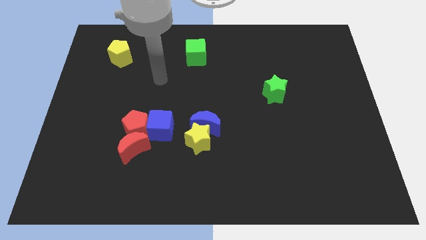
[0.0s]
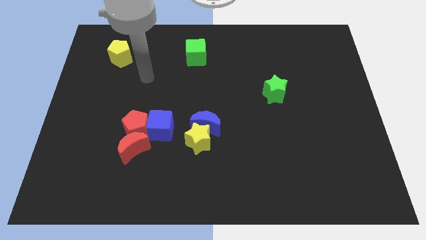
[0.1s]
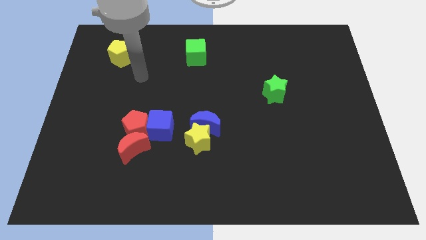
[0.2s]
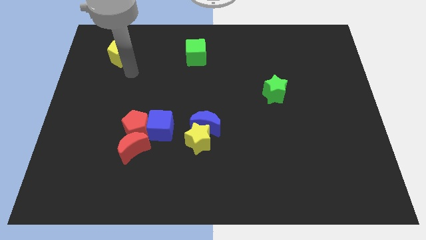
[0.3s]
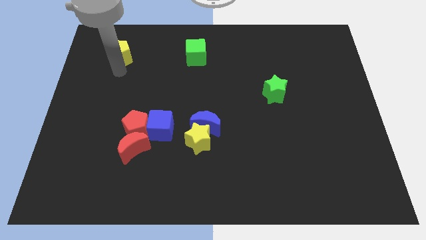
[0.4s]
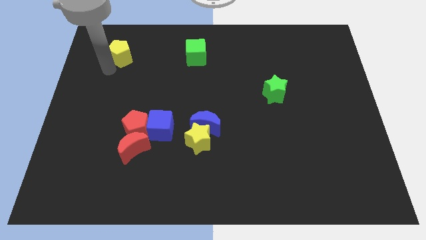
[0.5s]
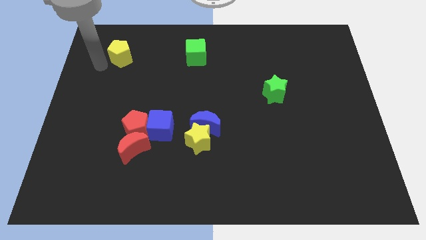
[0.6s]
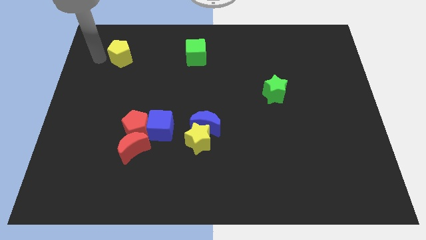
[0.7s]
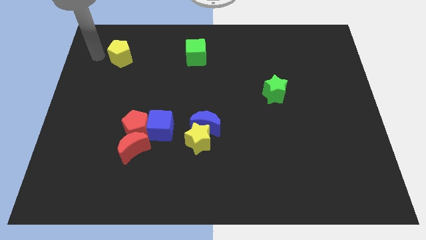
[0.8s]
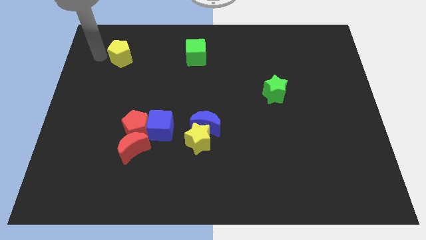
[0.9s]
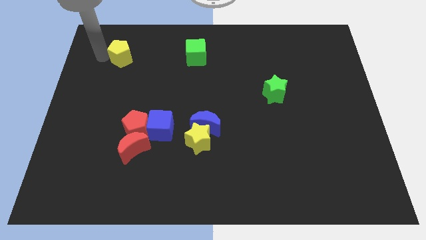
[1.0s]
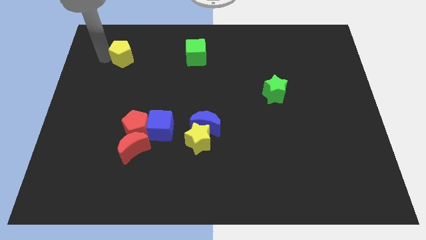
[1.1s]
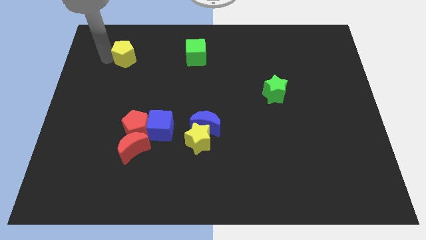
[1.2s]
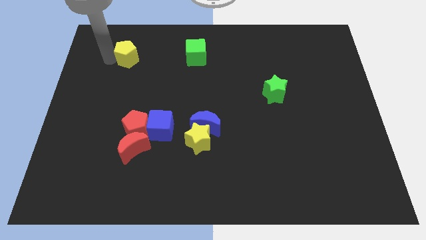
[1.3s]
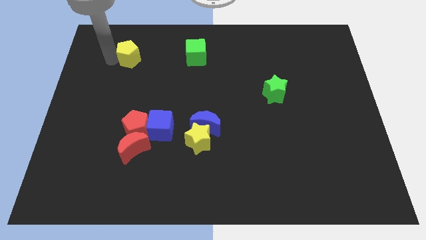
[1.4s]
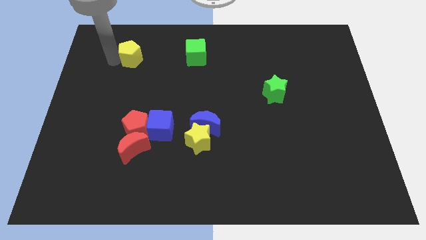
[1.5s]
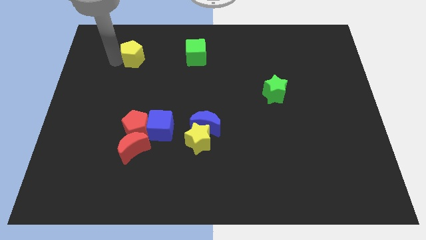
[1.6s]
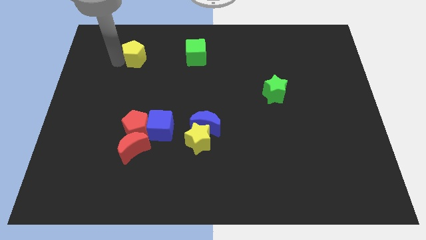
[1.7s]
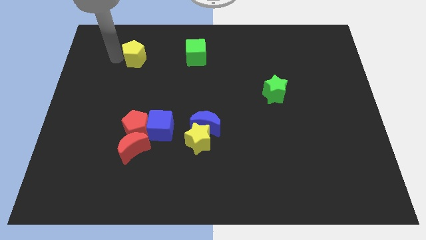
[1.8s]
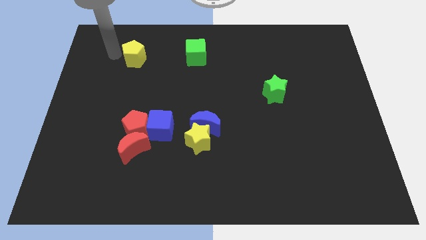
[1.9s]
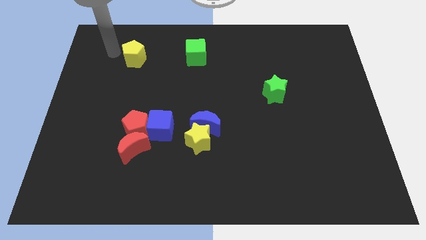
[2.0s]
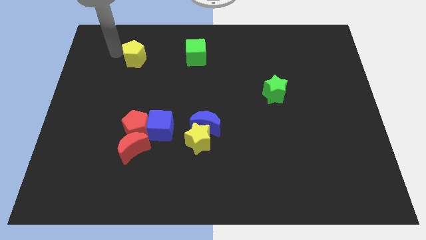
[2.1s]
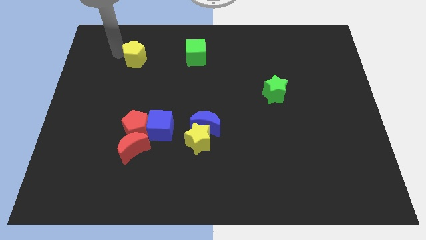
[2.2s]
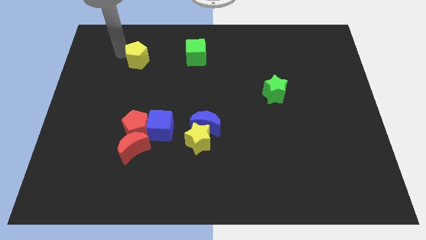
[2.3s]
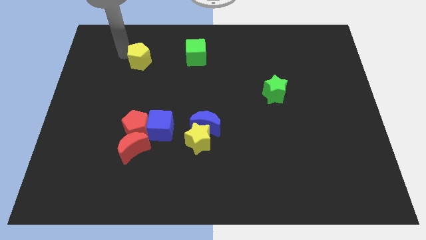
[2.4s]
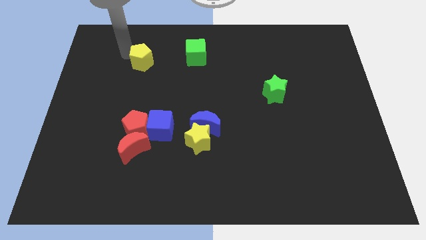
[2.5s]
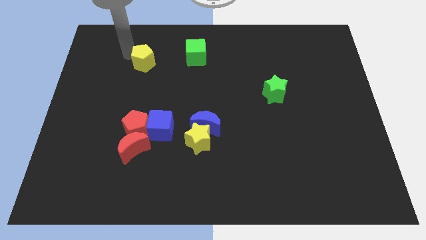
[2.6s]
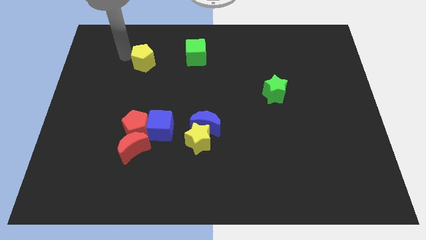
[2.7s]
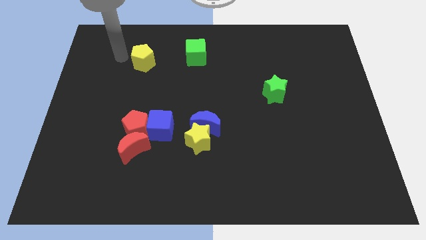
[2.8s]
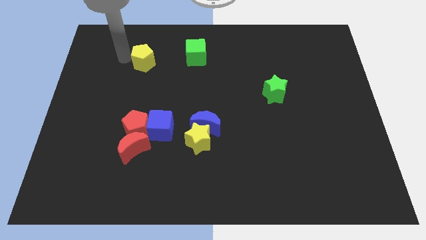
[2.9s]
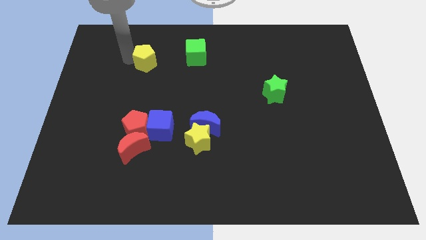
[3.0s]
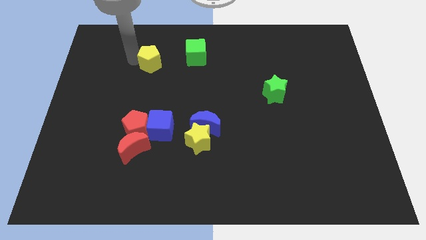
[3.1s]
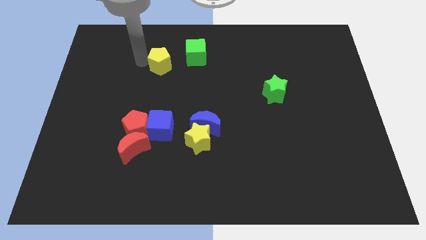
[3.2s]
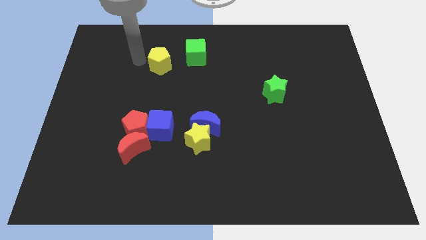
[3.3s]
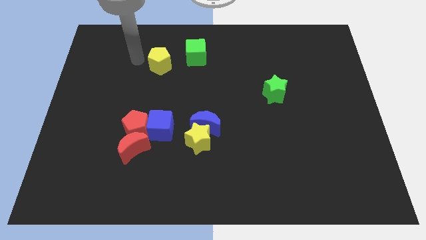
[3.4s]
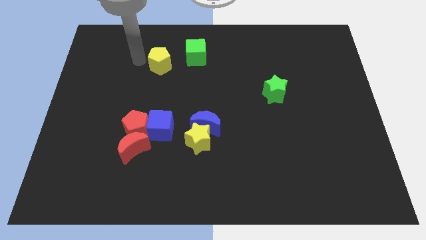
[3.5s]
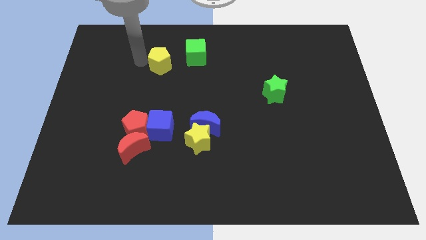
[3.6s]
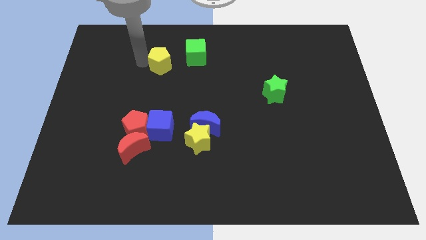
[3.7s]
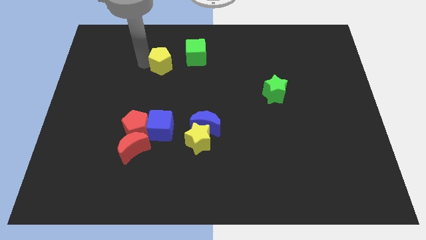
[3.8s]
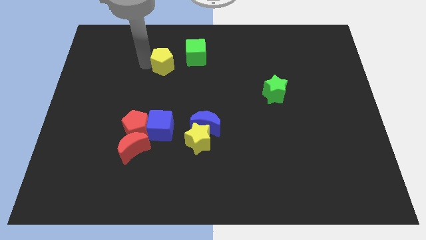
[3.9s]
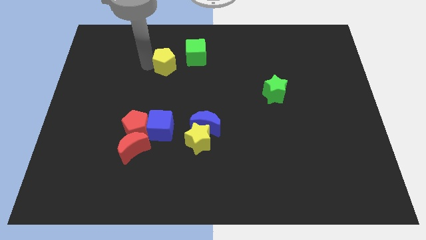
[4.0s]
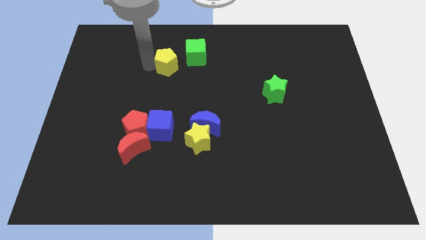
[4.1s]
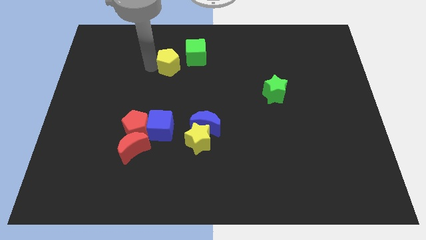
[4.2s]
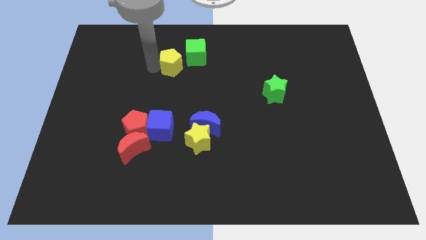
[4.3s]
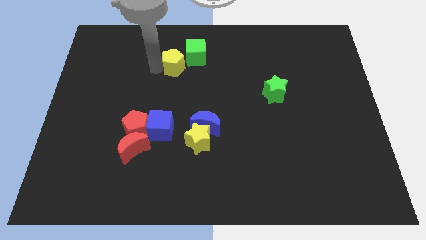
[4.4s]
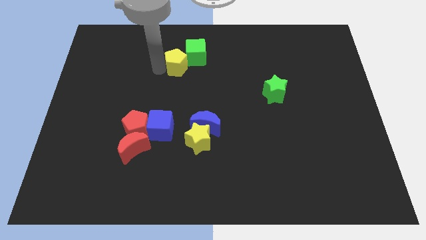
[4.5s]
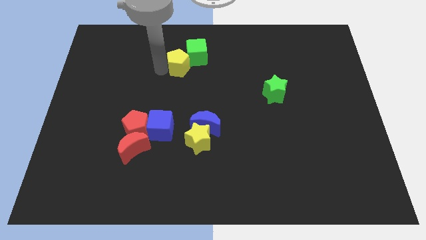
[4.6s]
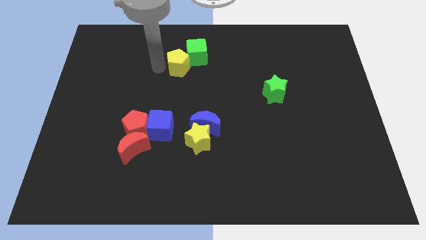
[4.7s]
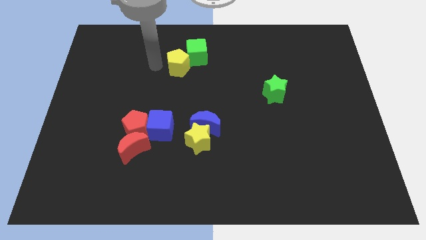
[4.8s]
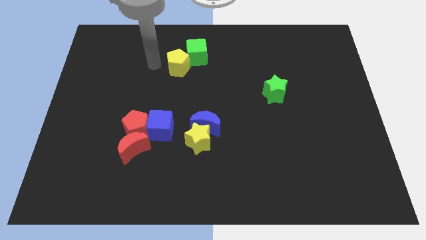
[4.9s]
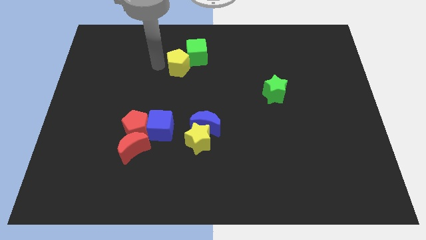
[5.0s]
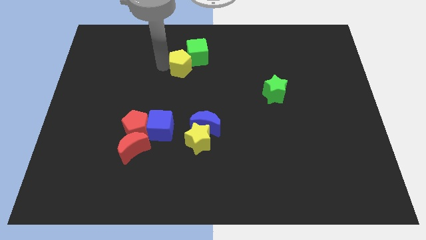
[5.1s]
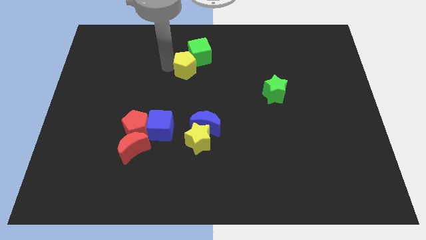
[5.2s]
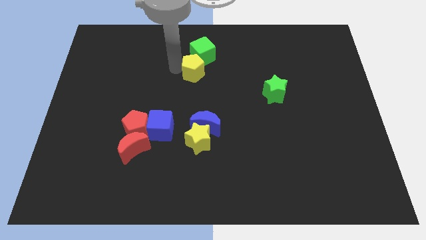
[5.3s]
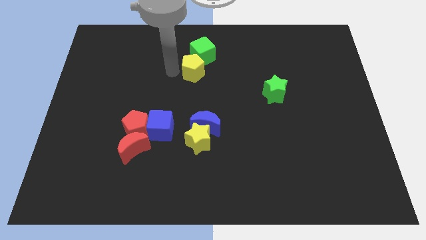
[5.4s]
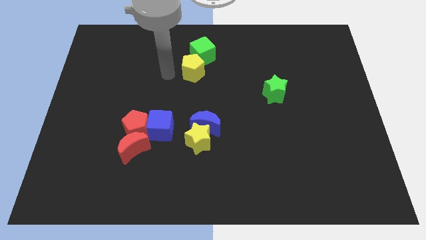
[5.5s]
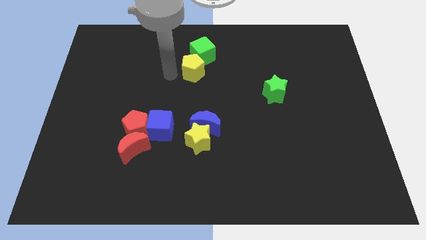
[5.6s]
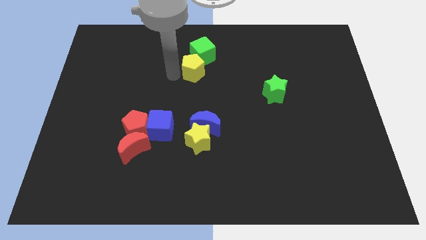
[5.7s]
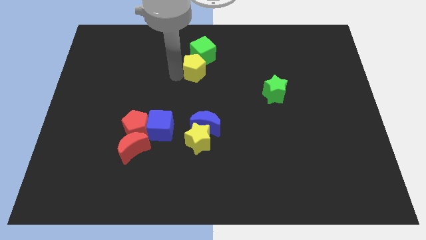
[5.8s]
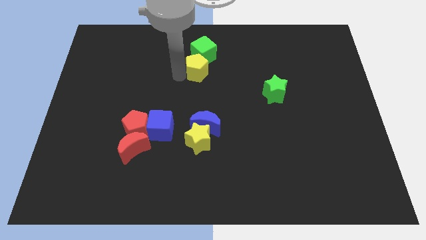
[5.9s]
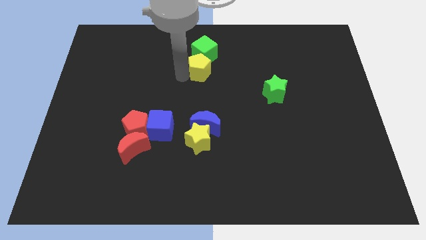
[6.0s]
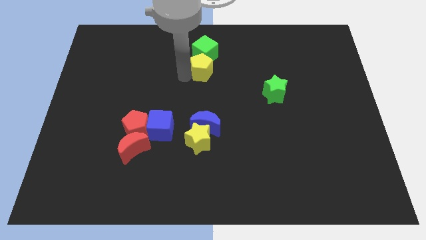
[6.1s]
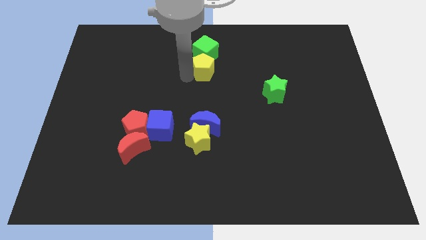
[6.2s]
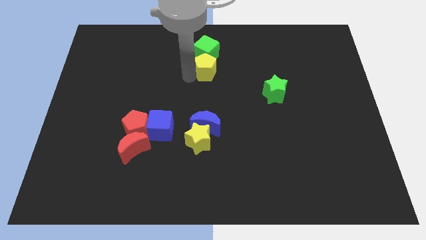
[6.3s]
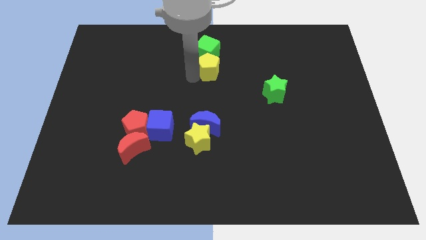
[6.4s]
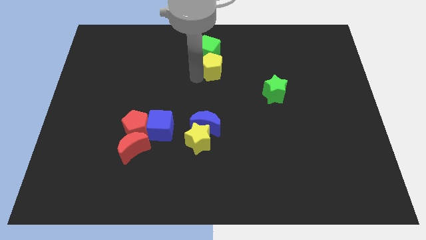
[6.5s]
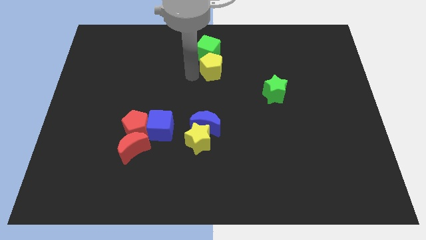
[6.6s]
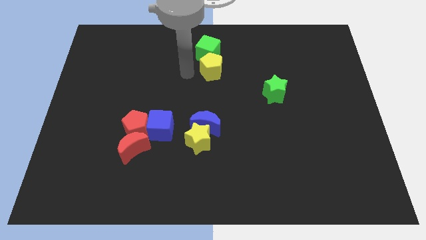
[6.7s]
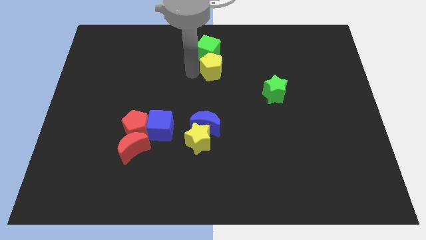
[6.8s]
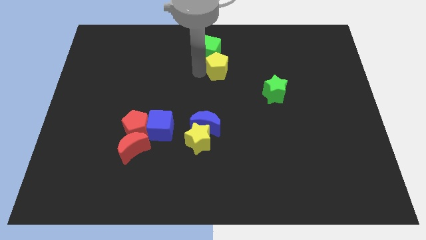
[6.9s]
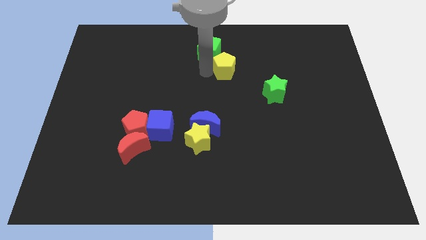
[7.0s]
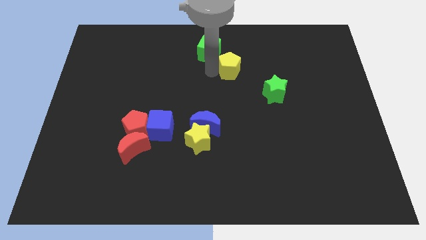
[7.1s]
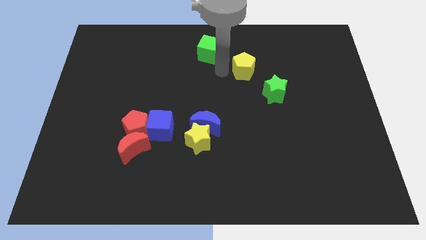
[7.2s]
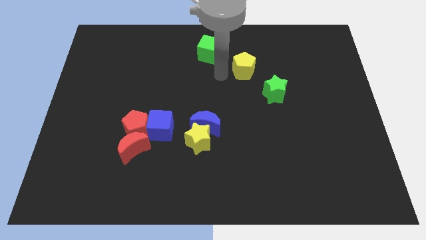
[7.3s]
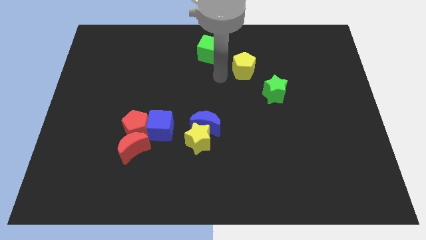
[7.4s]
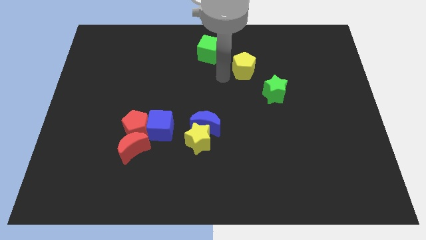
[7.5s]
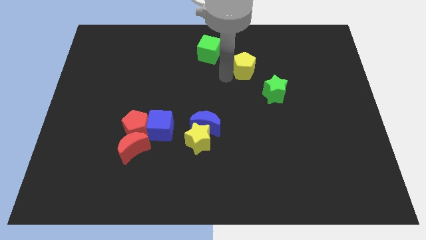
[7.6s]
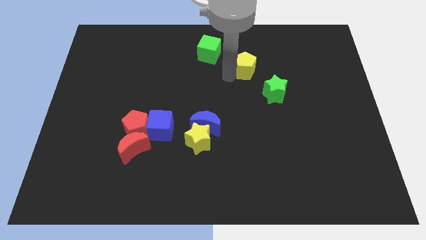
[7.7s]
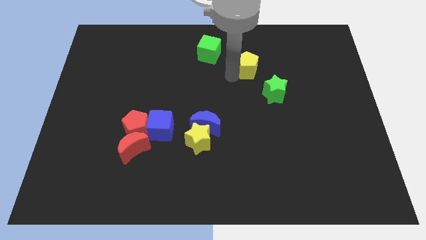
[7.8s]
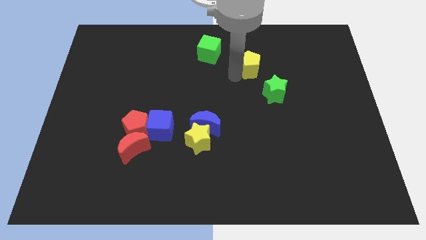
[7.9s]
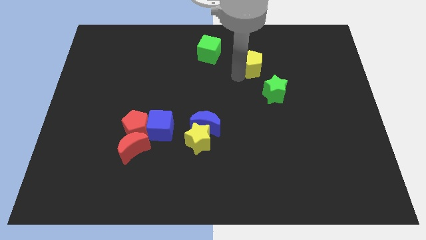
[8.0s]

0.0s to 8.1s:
slide the yellow pentagon to the top side of the green star
